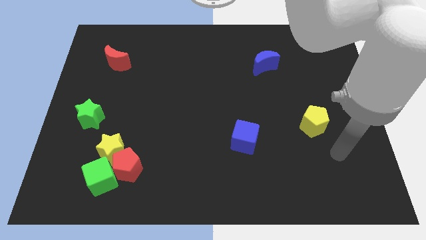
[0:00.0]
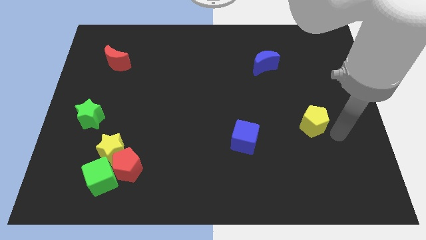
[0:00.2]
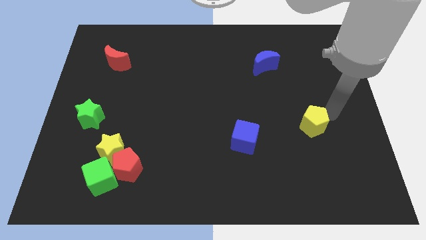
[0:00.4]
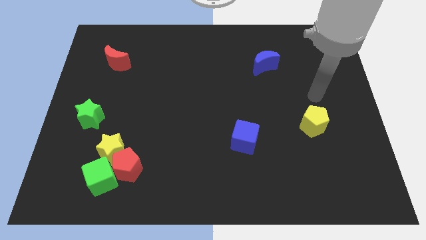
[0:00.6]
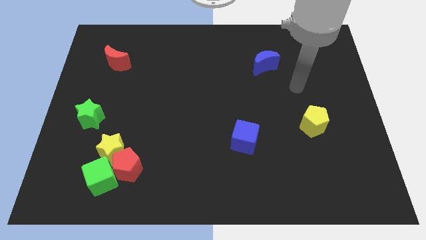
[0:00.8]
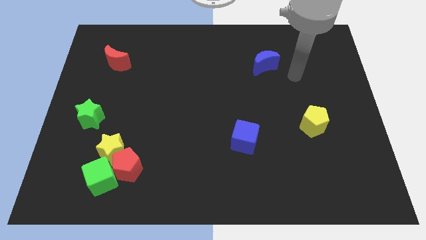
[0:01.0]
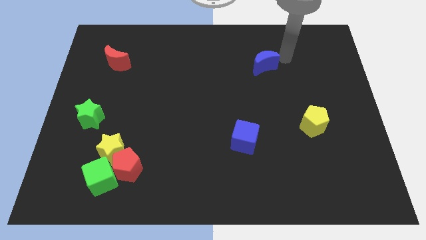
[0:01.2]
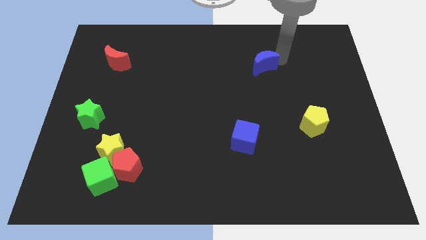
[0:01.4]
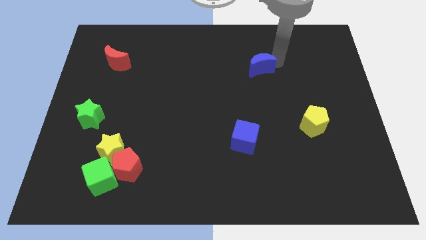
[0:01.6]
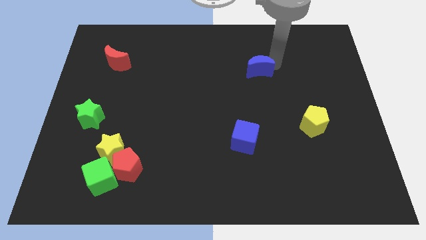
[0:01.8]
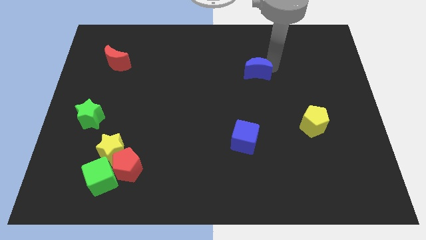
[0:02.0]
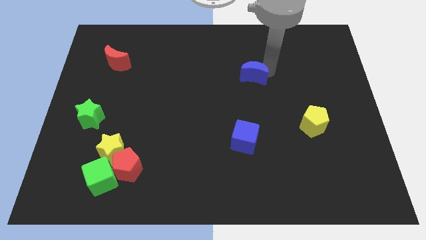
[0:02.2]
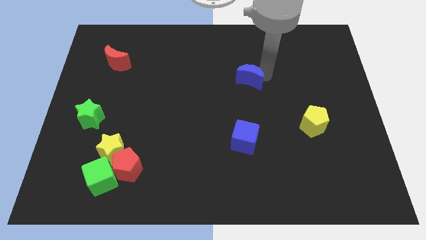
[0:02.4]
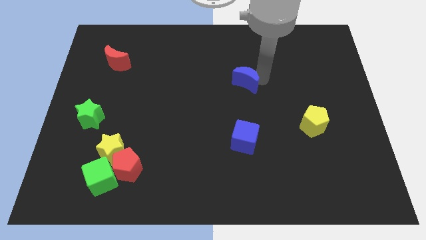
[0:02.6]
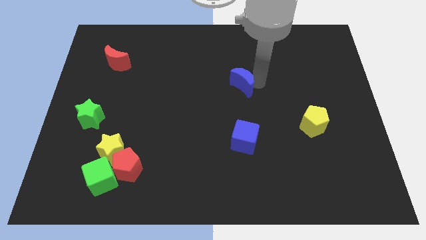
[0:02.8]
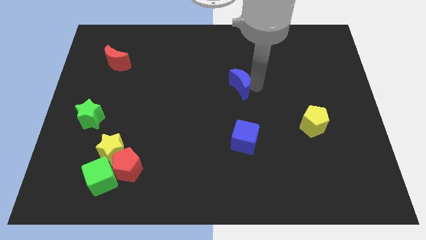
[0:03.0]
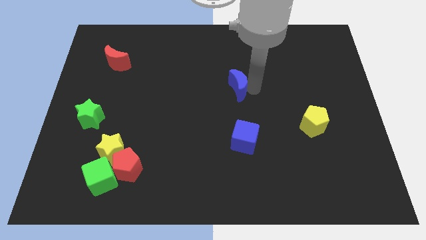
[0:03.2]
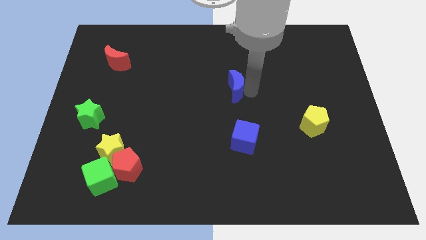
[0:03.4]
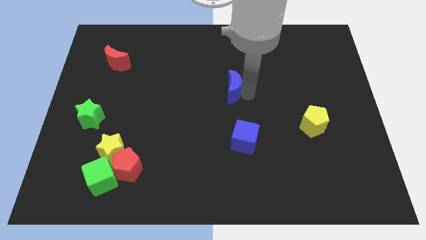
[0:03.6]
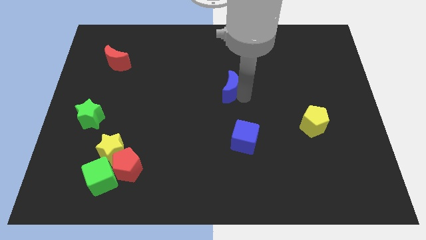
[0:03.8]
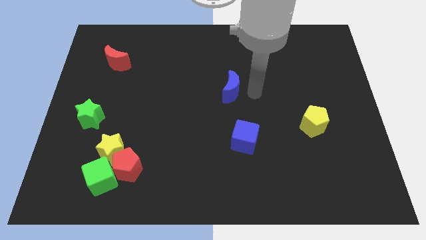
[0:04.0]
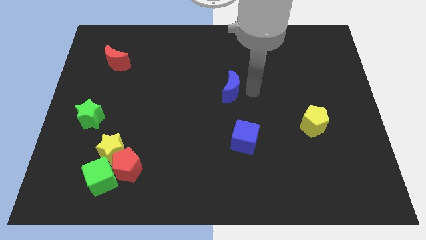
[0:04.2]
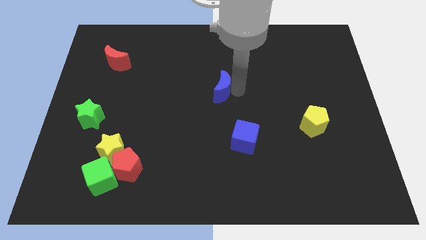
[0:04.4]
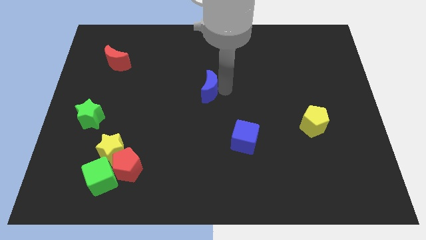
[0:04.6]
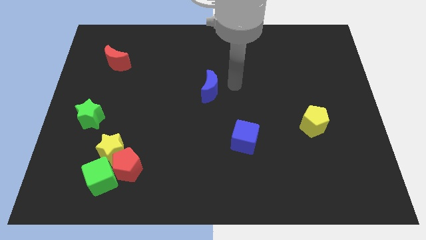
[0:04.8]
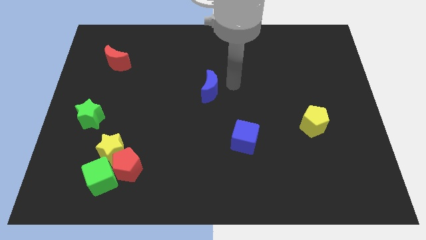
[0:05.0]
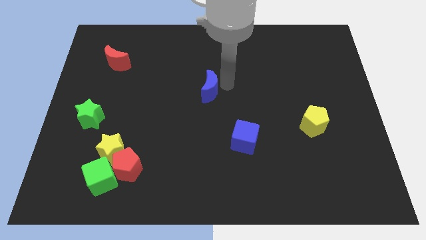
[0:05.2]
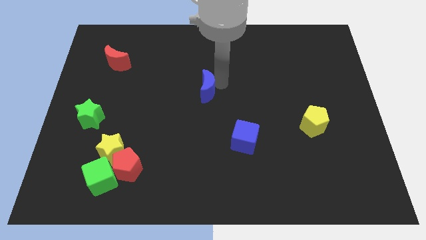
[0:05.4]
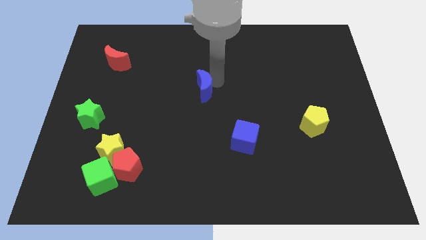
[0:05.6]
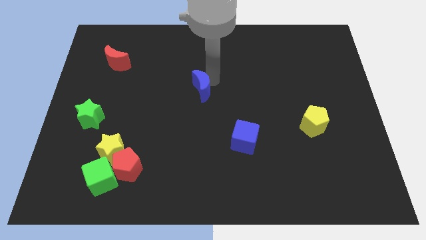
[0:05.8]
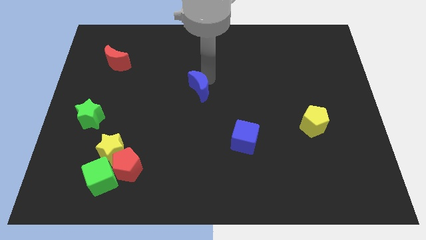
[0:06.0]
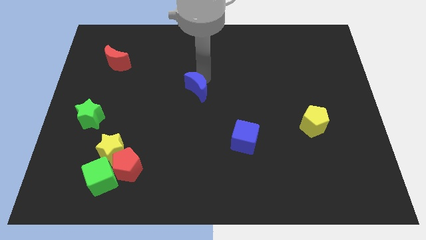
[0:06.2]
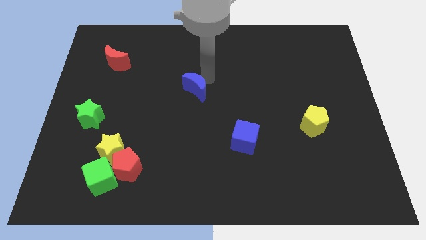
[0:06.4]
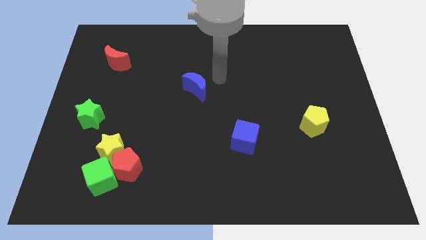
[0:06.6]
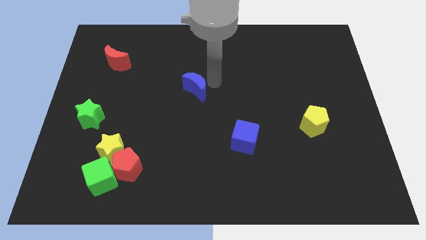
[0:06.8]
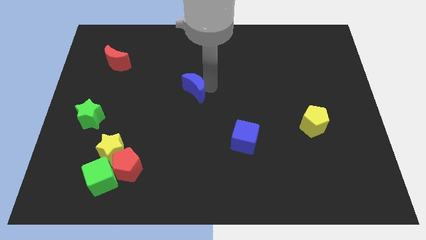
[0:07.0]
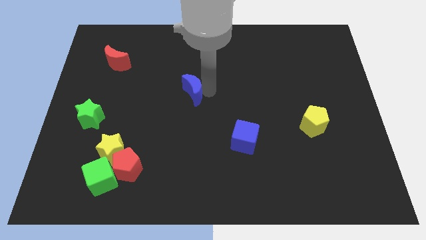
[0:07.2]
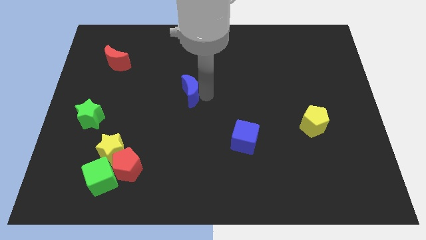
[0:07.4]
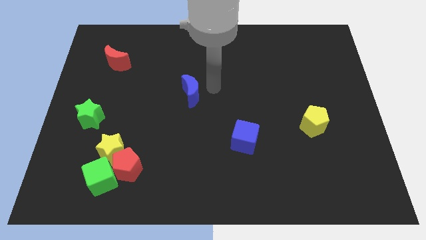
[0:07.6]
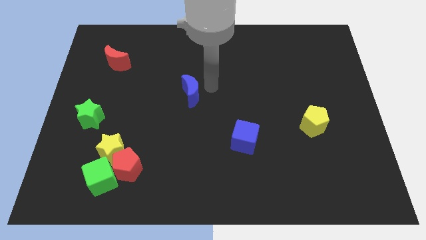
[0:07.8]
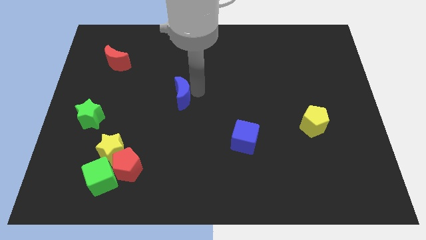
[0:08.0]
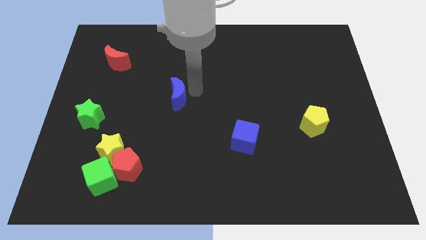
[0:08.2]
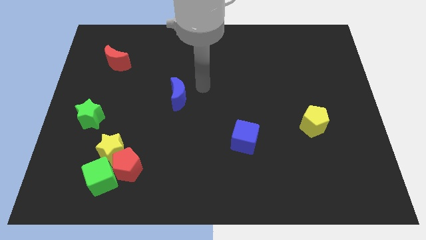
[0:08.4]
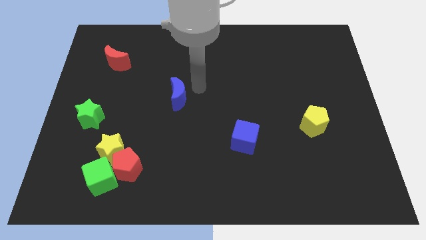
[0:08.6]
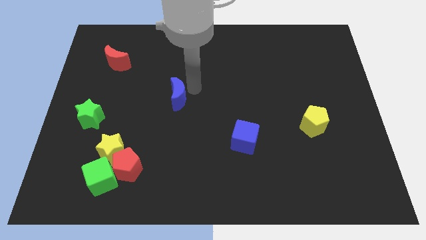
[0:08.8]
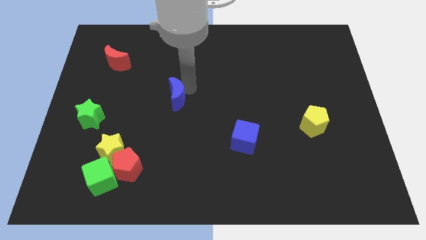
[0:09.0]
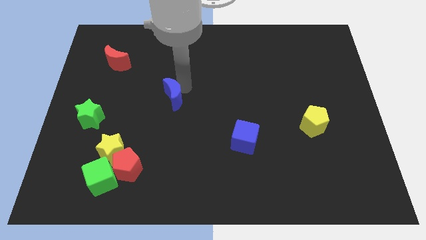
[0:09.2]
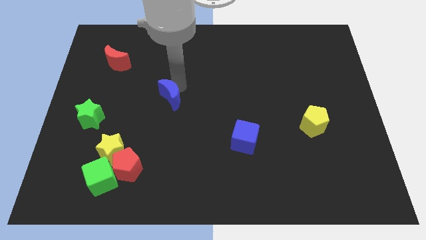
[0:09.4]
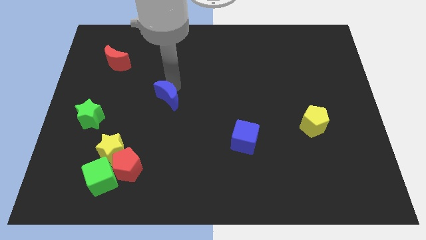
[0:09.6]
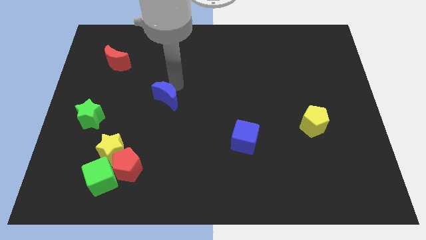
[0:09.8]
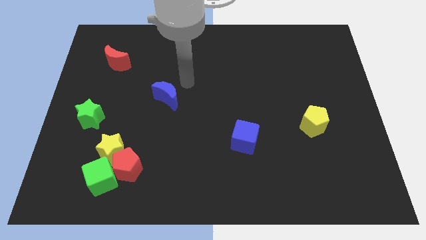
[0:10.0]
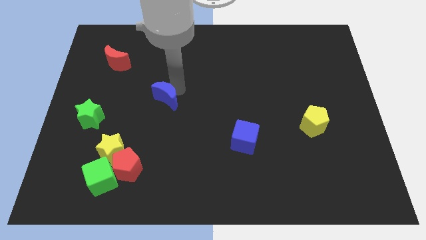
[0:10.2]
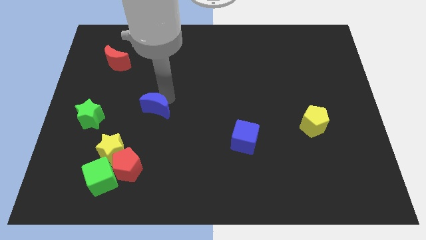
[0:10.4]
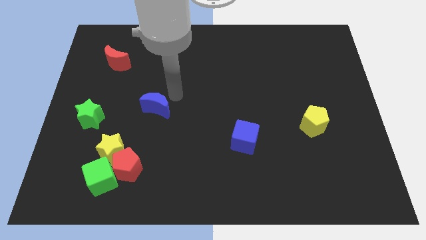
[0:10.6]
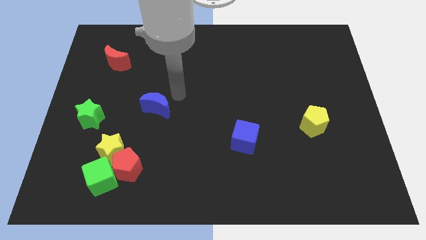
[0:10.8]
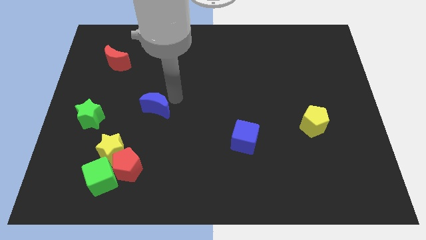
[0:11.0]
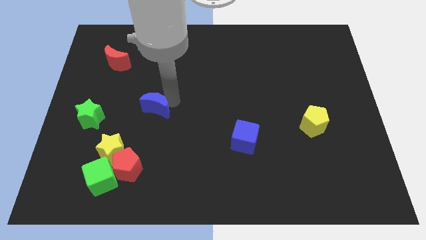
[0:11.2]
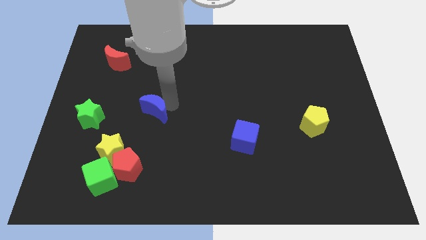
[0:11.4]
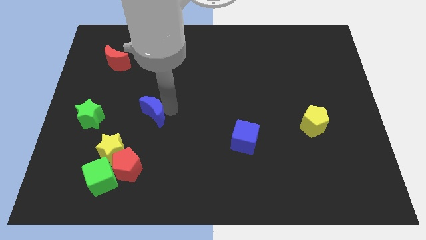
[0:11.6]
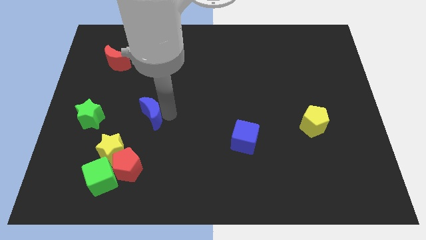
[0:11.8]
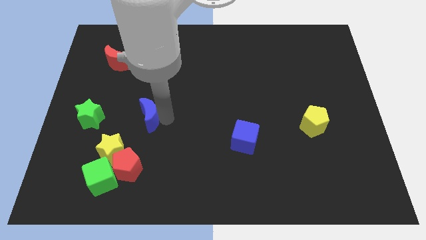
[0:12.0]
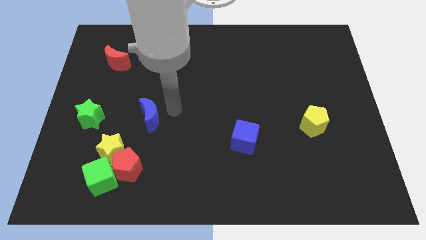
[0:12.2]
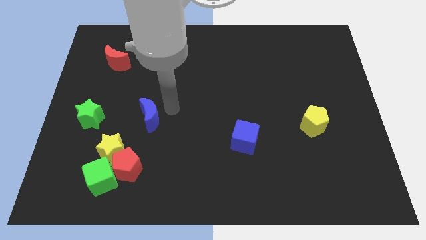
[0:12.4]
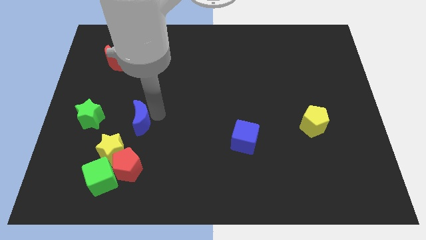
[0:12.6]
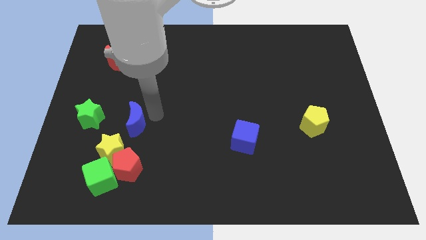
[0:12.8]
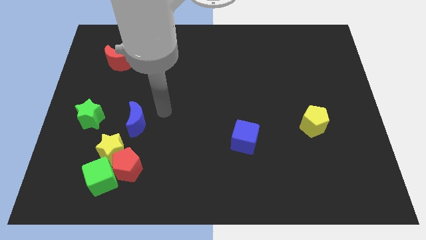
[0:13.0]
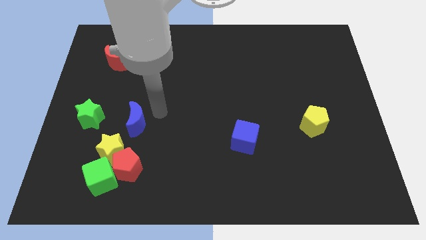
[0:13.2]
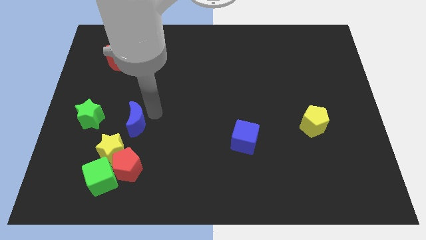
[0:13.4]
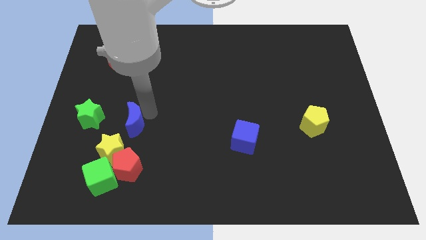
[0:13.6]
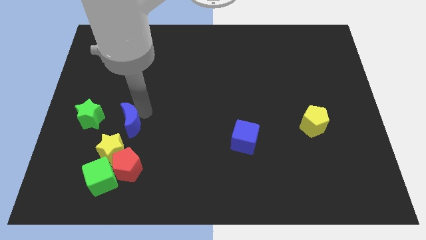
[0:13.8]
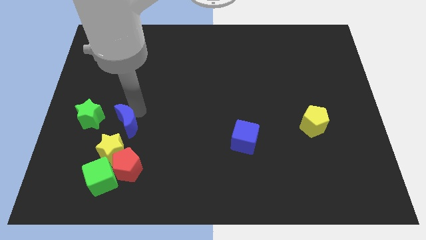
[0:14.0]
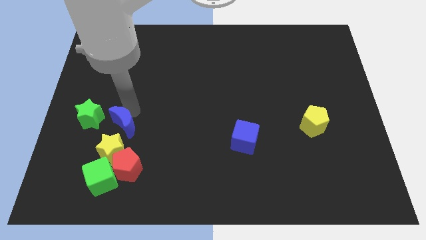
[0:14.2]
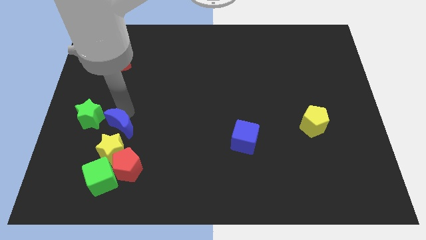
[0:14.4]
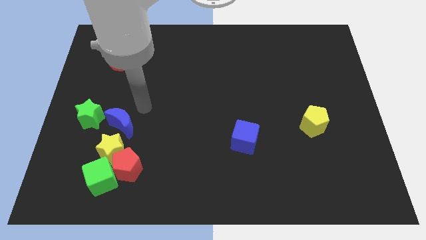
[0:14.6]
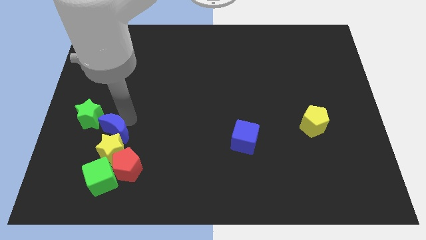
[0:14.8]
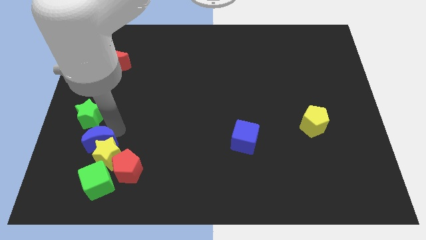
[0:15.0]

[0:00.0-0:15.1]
put the blue moon to the bottom of the green star
